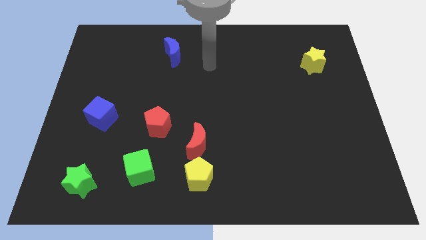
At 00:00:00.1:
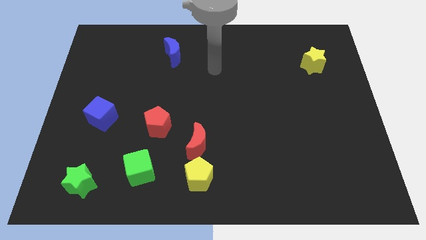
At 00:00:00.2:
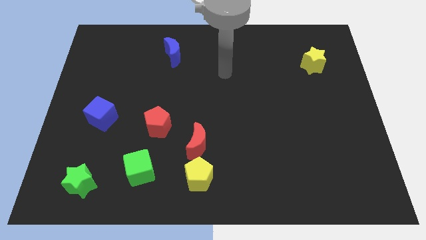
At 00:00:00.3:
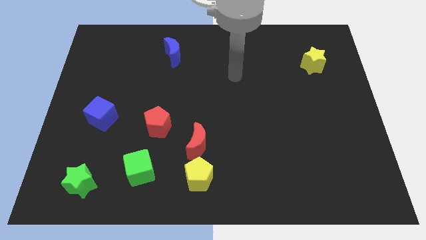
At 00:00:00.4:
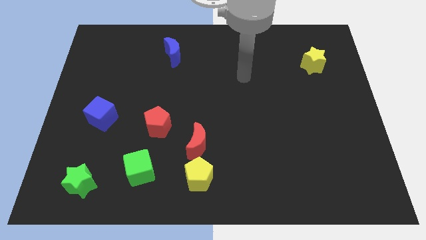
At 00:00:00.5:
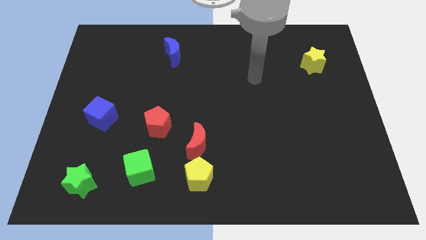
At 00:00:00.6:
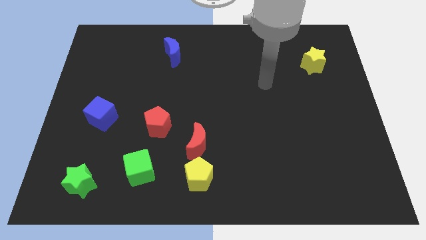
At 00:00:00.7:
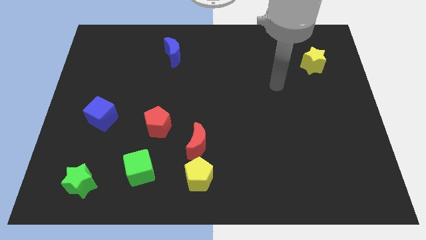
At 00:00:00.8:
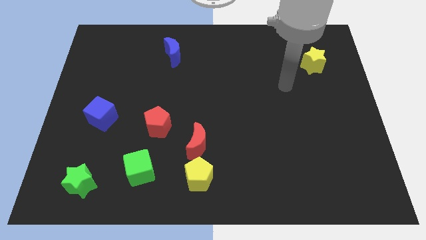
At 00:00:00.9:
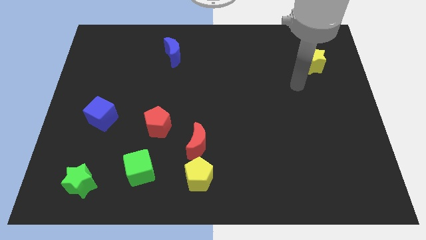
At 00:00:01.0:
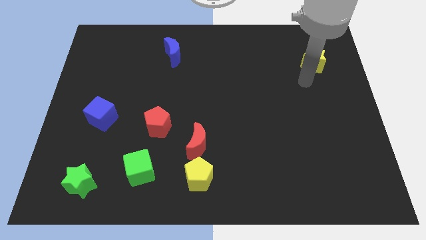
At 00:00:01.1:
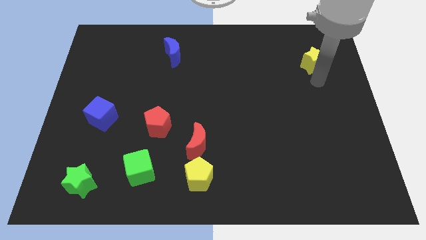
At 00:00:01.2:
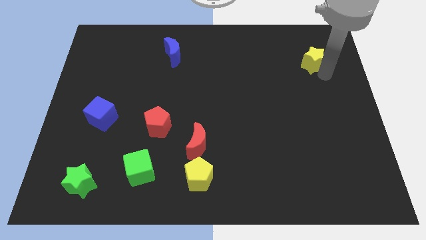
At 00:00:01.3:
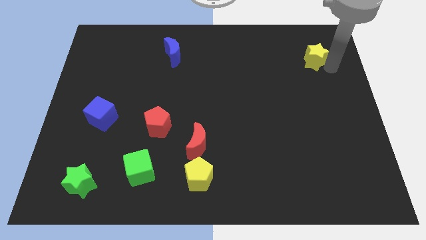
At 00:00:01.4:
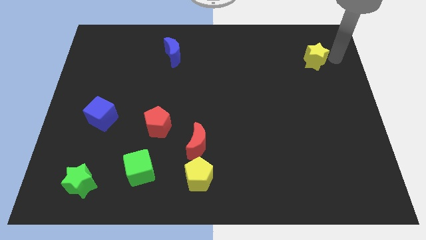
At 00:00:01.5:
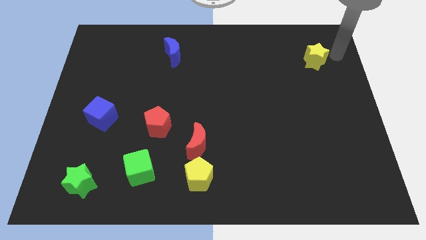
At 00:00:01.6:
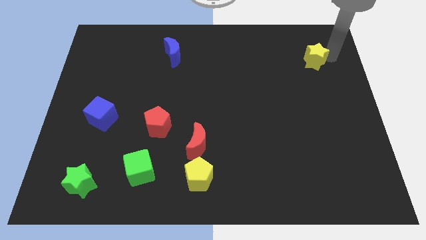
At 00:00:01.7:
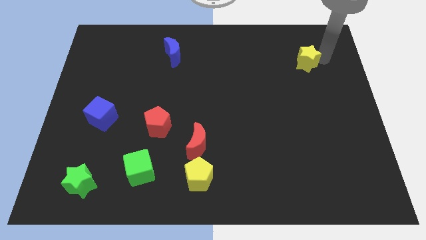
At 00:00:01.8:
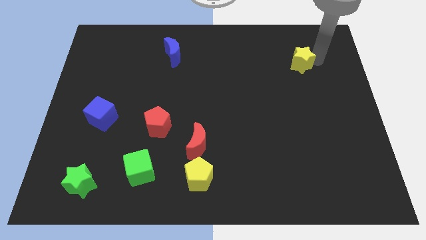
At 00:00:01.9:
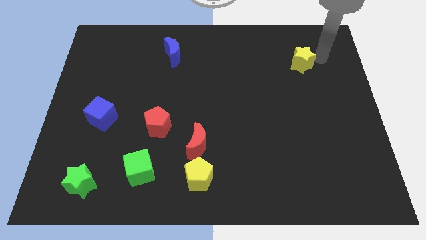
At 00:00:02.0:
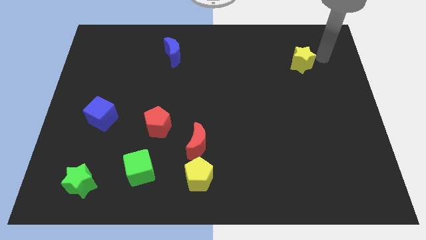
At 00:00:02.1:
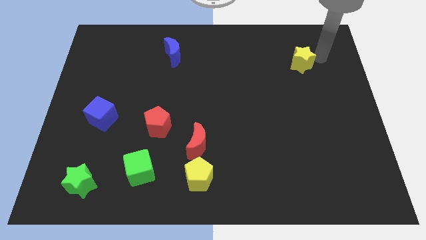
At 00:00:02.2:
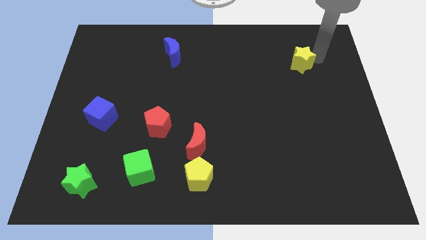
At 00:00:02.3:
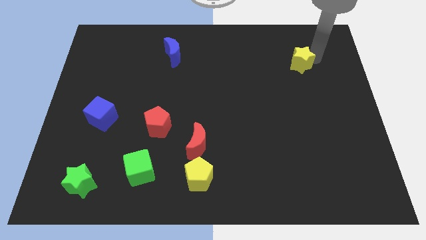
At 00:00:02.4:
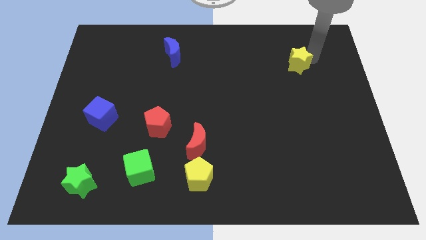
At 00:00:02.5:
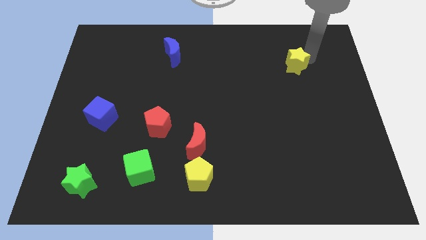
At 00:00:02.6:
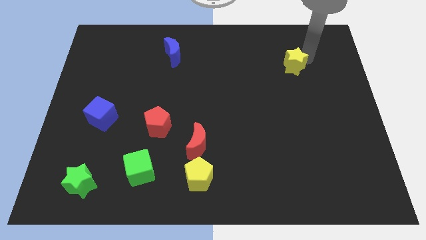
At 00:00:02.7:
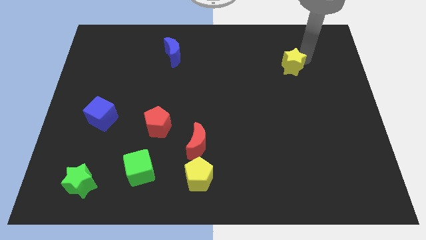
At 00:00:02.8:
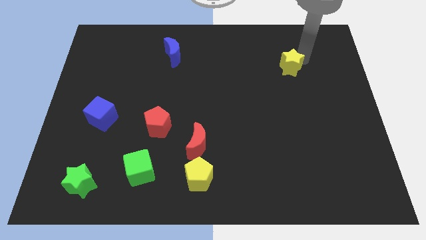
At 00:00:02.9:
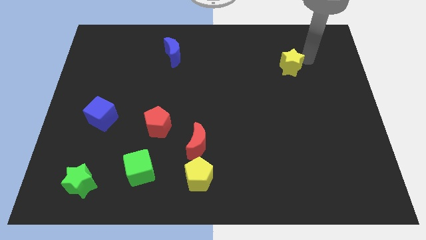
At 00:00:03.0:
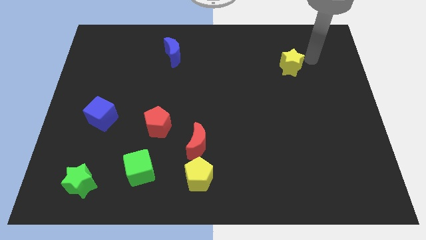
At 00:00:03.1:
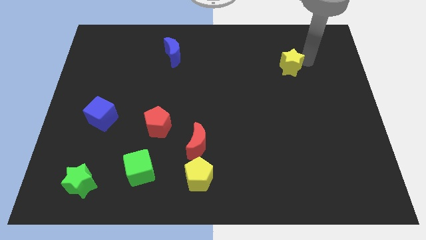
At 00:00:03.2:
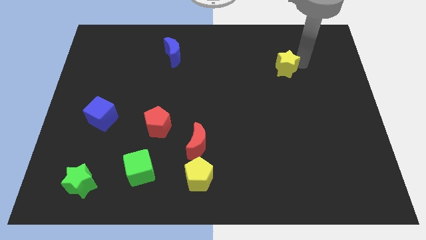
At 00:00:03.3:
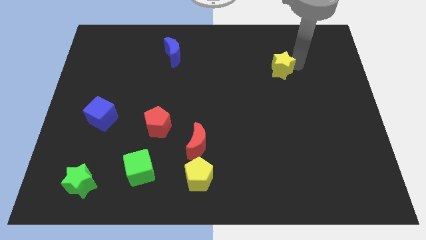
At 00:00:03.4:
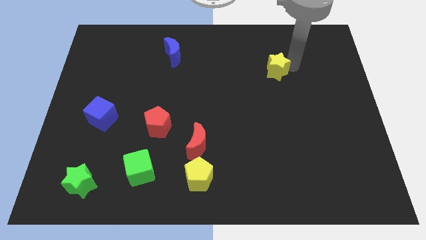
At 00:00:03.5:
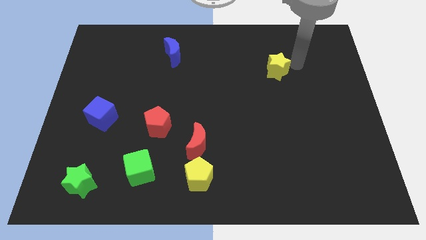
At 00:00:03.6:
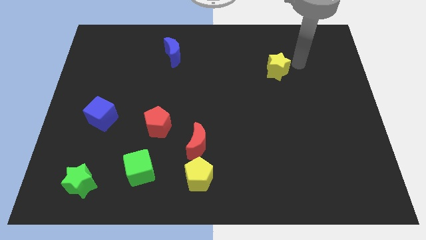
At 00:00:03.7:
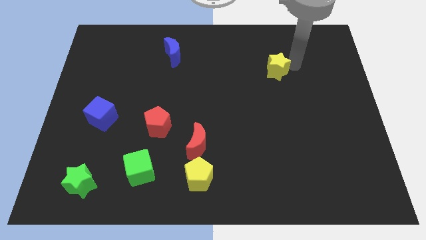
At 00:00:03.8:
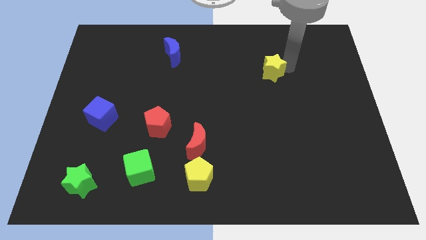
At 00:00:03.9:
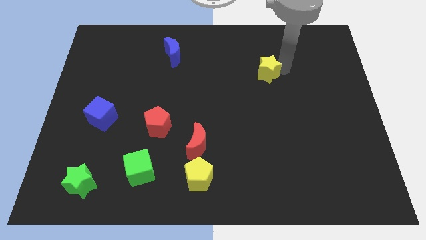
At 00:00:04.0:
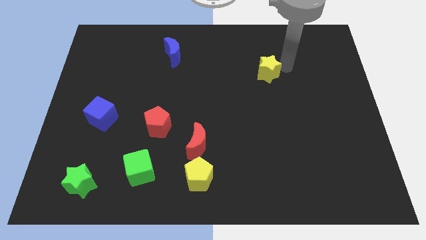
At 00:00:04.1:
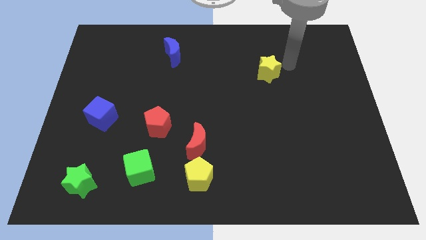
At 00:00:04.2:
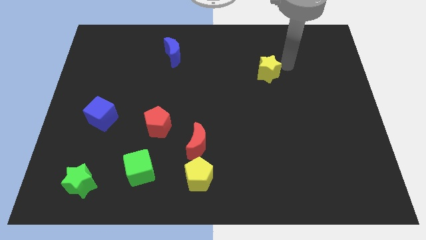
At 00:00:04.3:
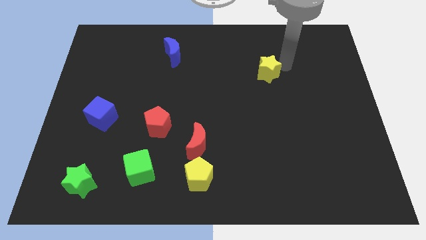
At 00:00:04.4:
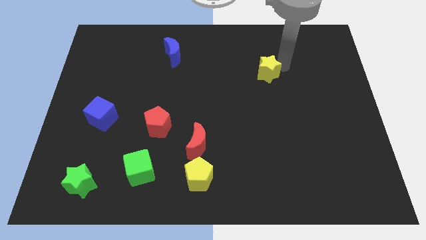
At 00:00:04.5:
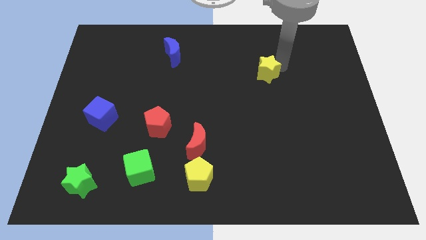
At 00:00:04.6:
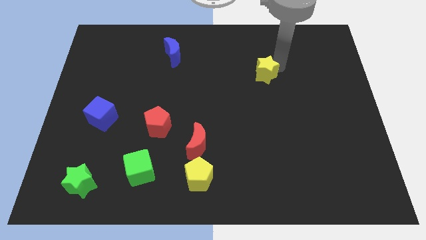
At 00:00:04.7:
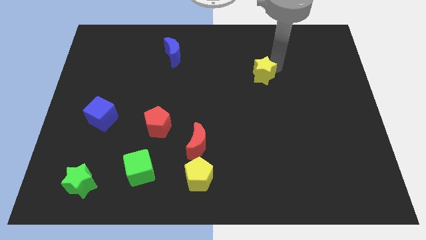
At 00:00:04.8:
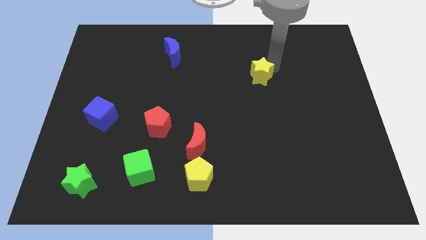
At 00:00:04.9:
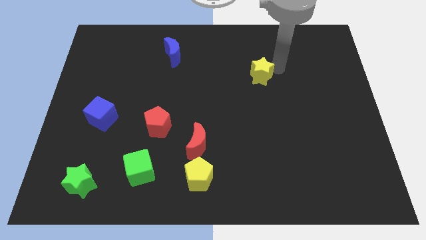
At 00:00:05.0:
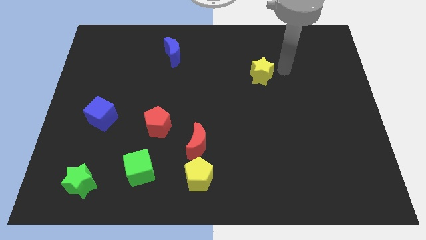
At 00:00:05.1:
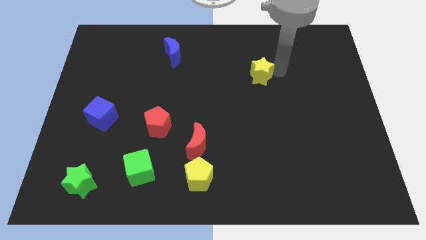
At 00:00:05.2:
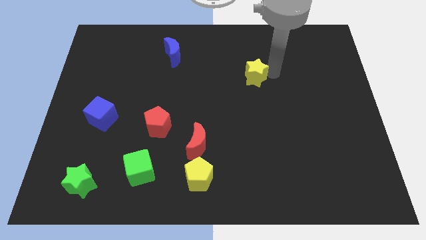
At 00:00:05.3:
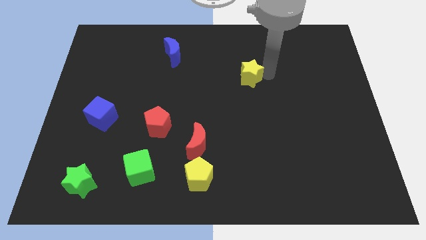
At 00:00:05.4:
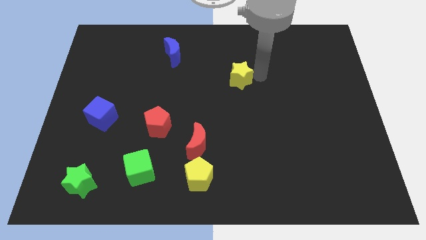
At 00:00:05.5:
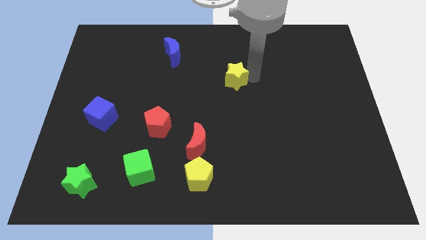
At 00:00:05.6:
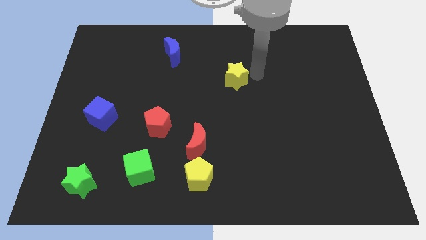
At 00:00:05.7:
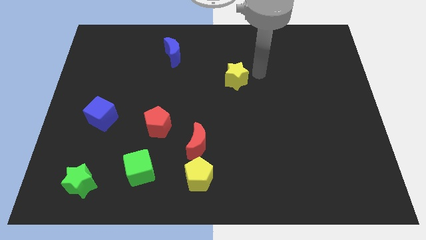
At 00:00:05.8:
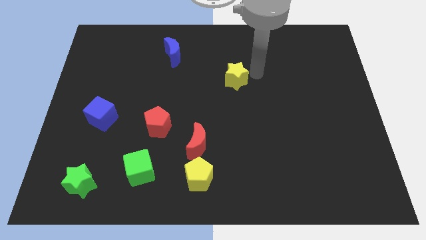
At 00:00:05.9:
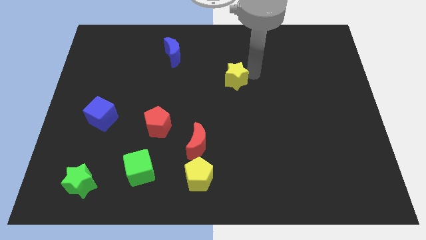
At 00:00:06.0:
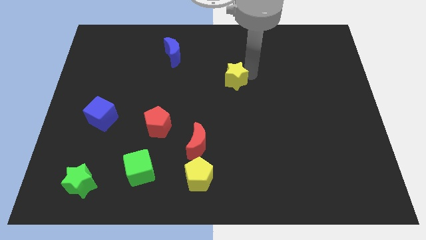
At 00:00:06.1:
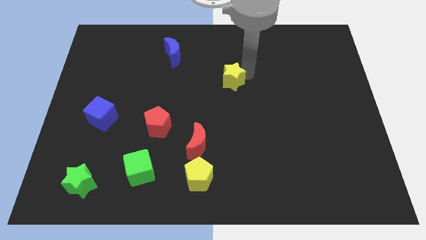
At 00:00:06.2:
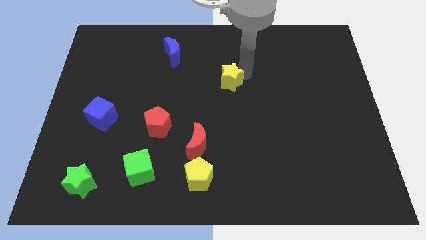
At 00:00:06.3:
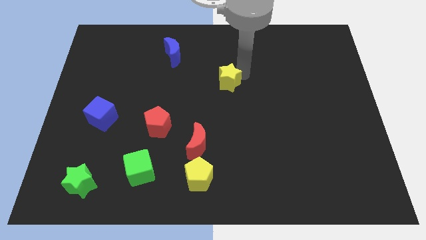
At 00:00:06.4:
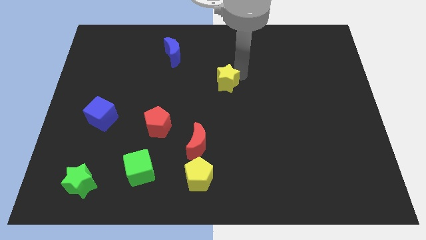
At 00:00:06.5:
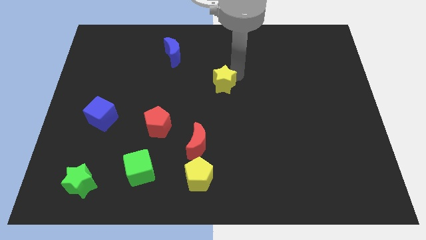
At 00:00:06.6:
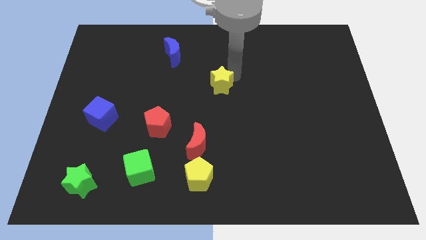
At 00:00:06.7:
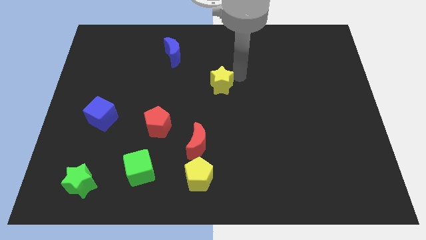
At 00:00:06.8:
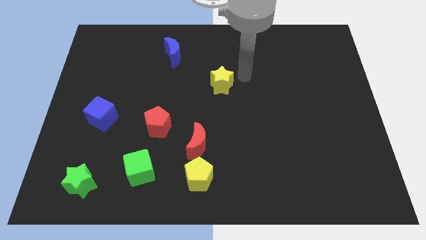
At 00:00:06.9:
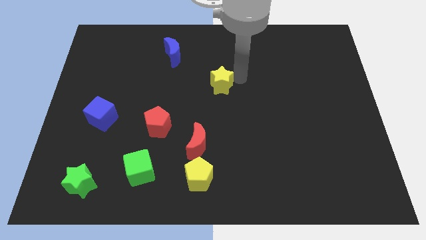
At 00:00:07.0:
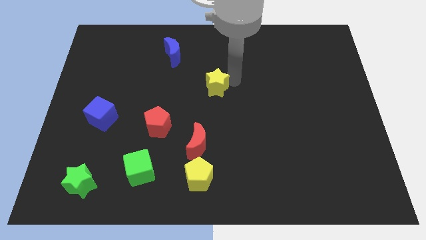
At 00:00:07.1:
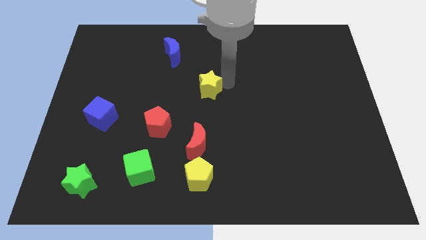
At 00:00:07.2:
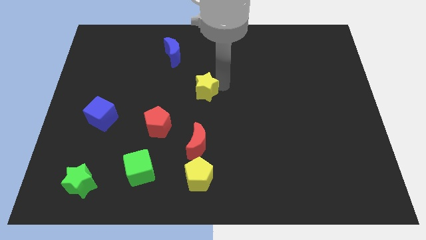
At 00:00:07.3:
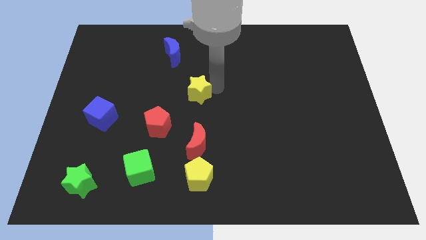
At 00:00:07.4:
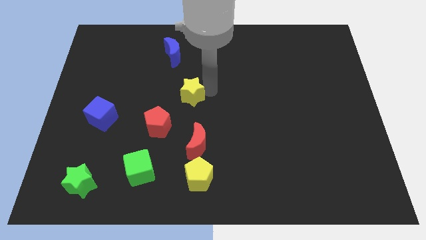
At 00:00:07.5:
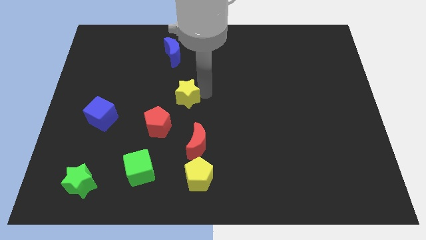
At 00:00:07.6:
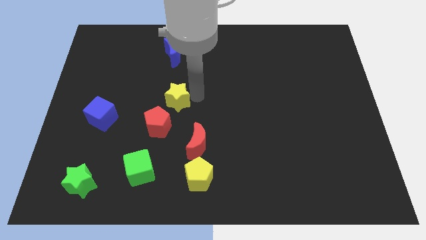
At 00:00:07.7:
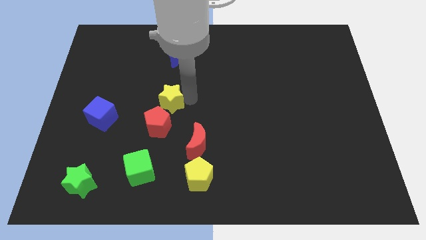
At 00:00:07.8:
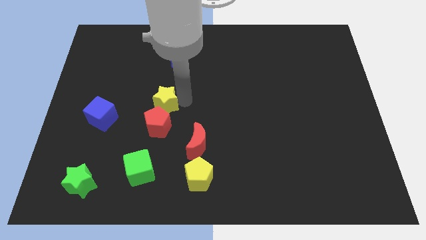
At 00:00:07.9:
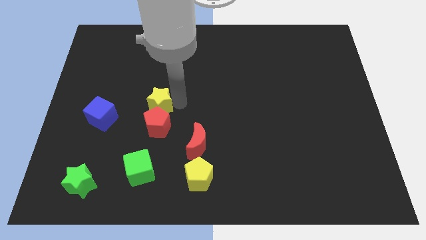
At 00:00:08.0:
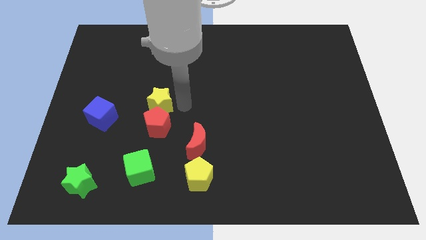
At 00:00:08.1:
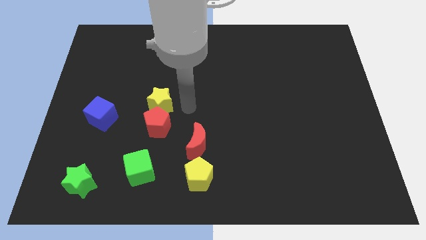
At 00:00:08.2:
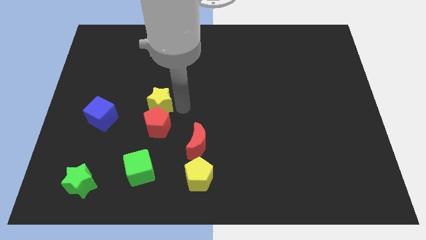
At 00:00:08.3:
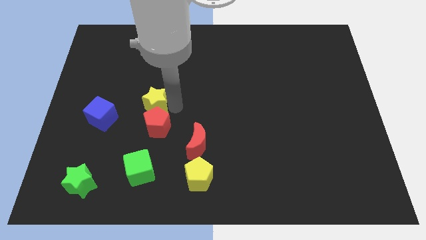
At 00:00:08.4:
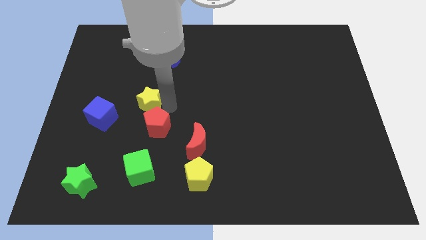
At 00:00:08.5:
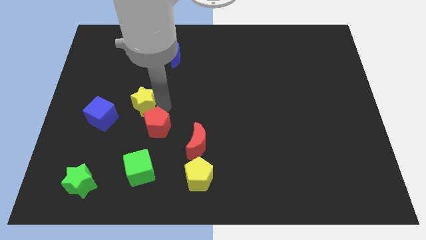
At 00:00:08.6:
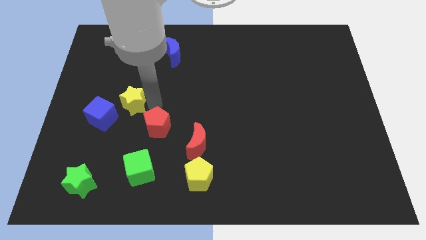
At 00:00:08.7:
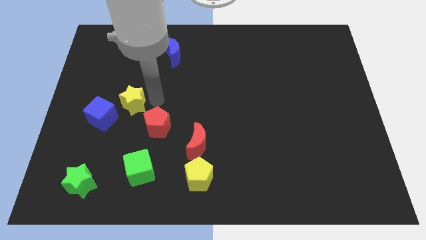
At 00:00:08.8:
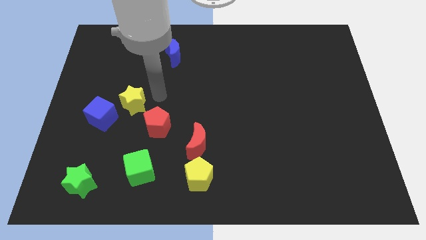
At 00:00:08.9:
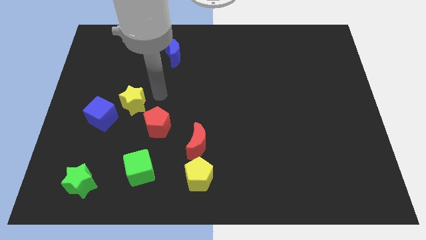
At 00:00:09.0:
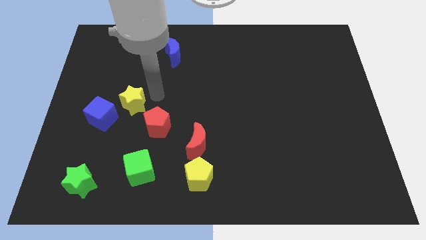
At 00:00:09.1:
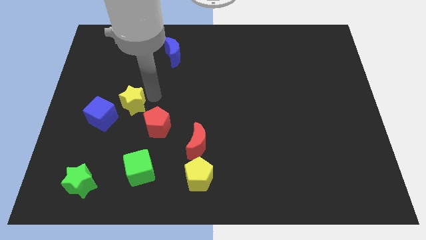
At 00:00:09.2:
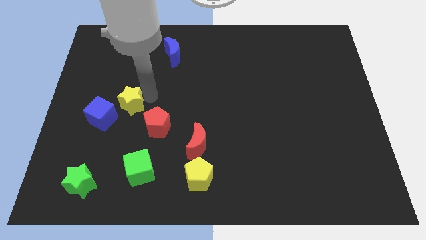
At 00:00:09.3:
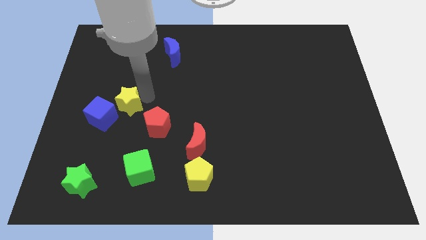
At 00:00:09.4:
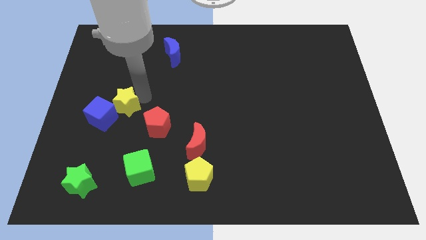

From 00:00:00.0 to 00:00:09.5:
push the yellow star towards the blue cube
